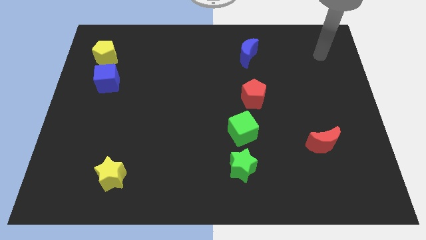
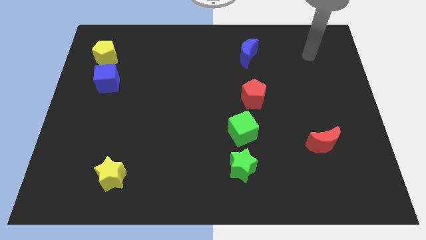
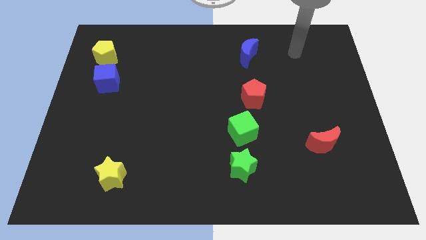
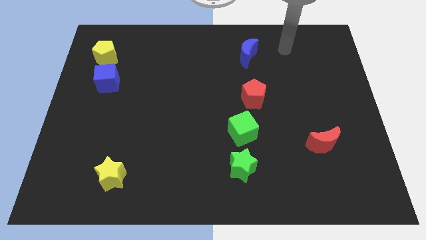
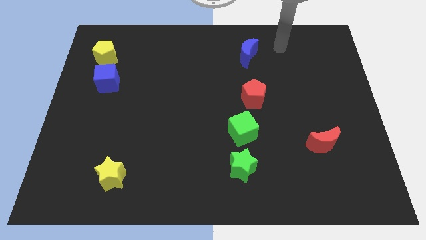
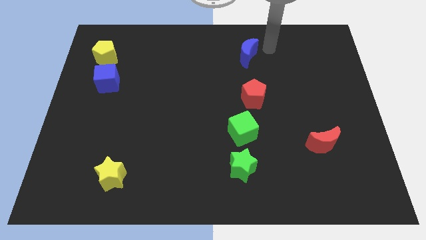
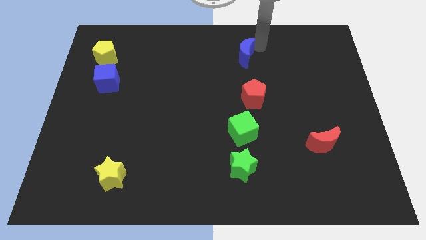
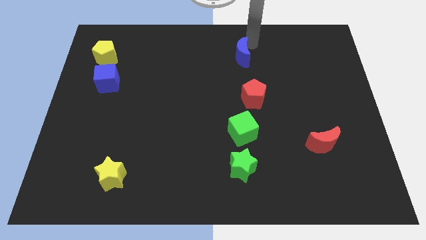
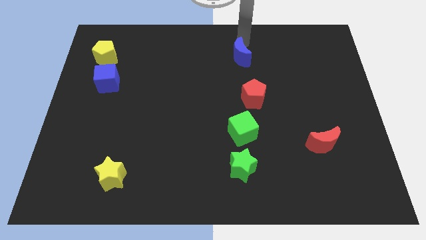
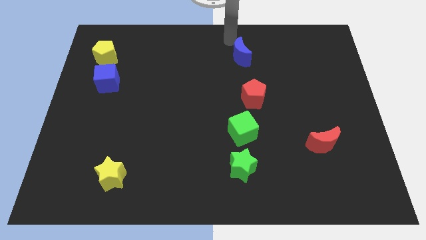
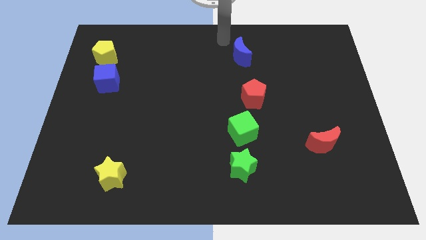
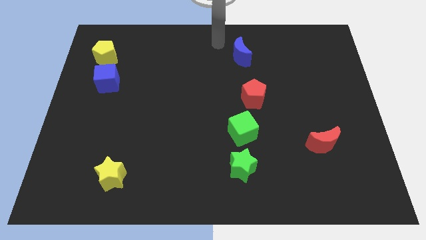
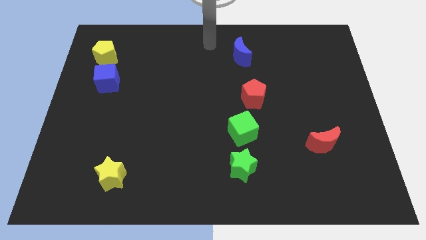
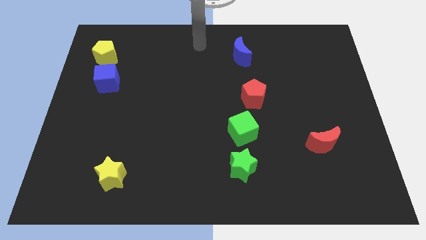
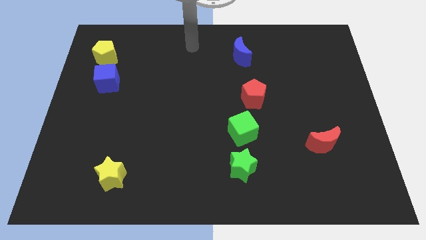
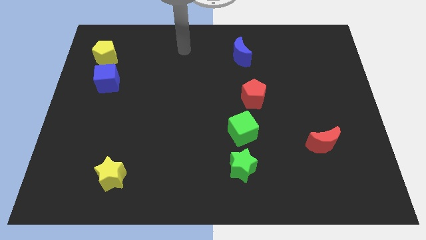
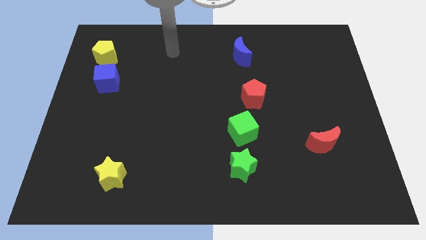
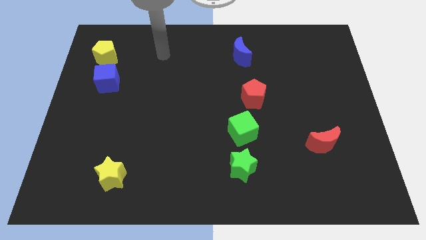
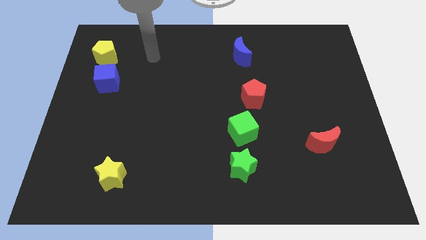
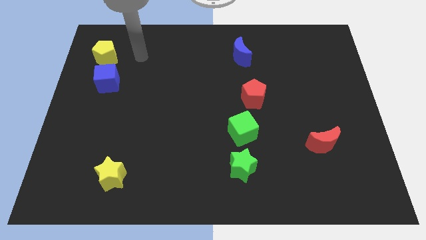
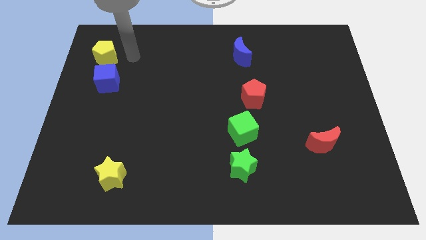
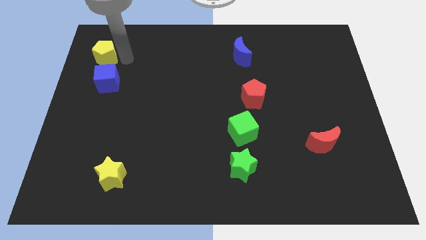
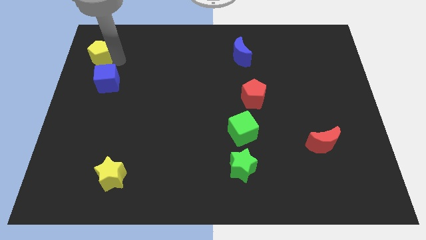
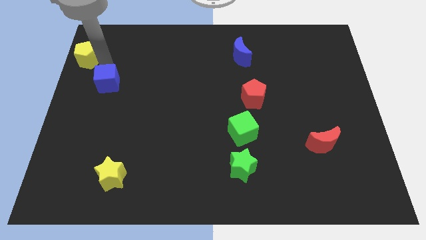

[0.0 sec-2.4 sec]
separate the blue cube from the yellow pentagon

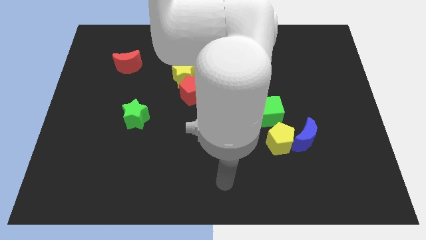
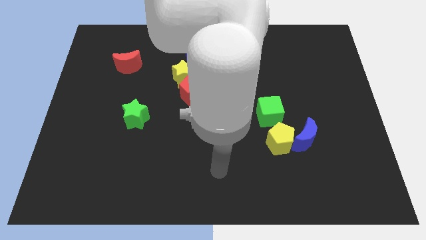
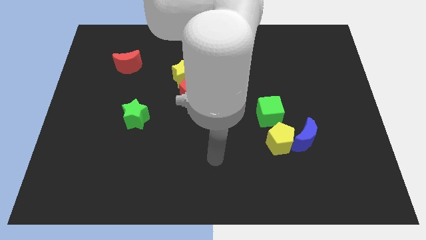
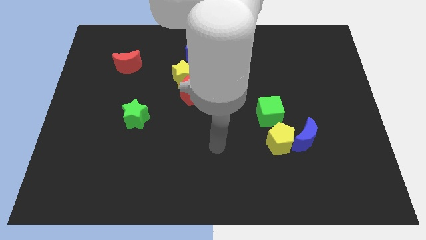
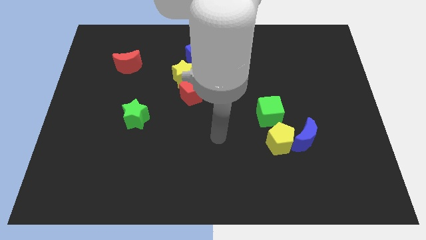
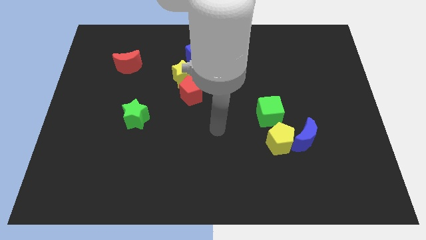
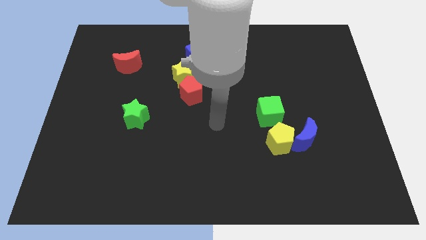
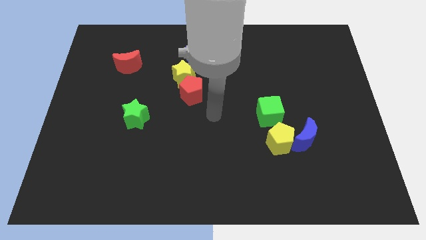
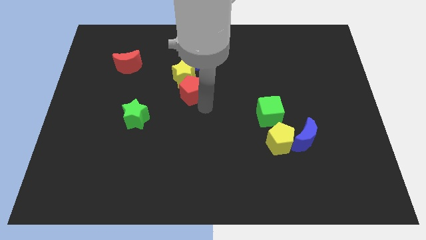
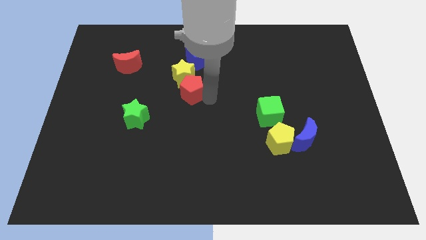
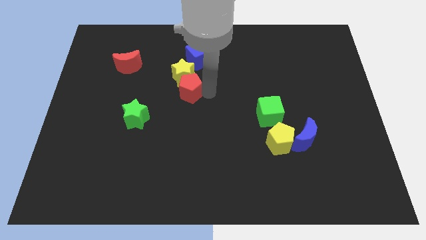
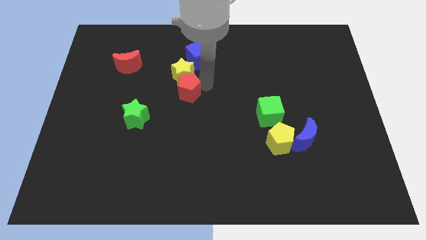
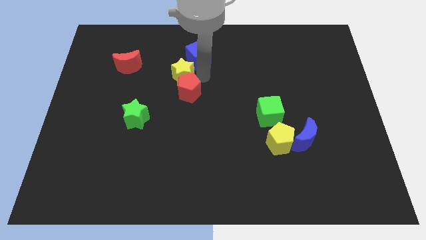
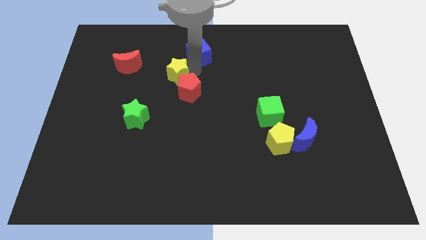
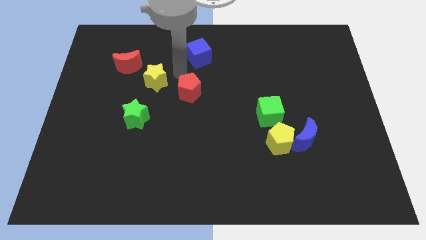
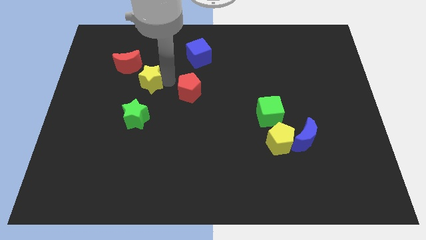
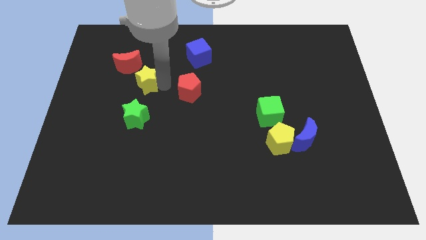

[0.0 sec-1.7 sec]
pull the red pentagon apart from the yellow star

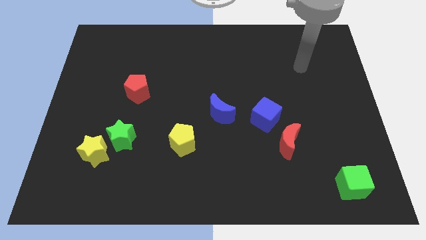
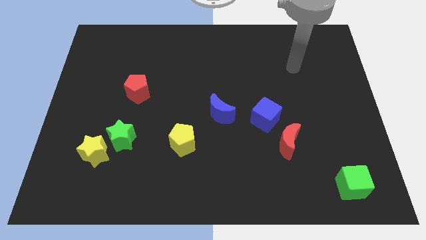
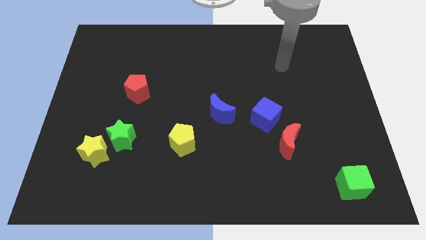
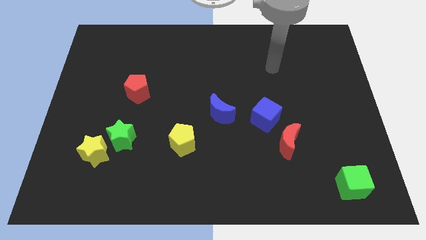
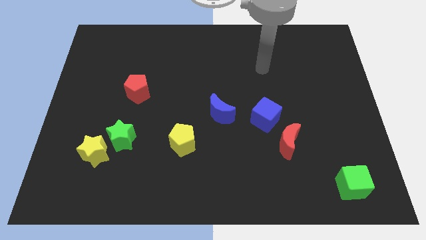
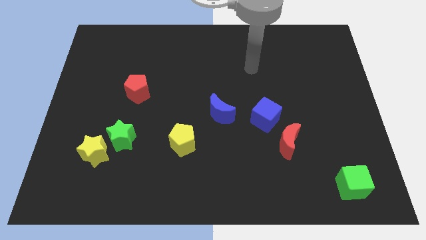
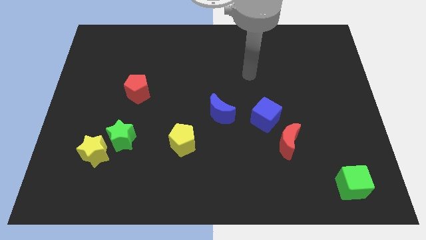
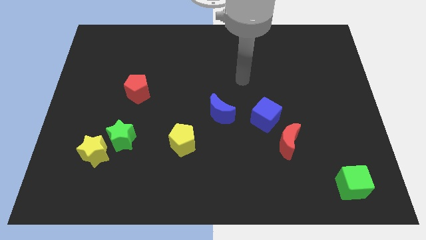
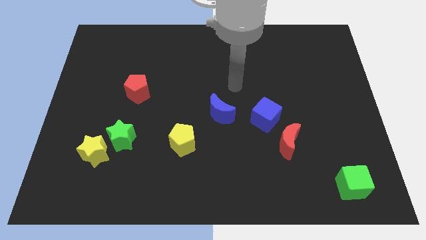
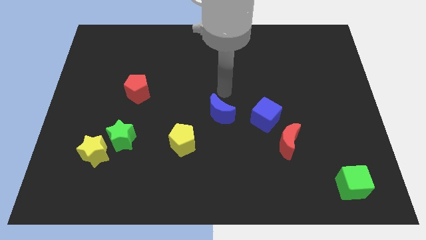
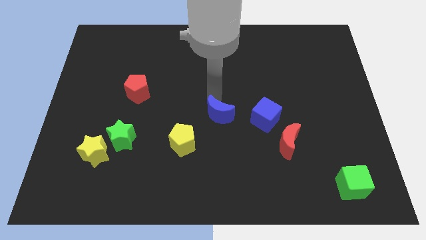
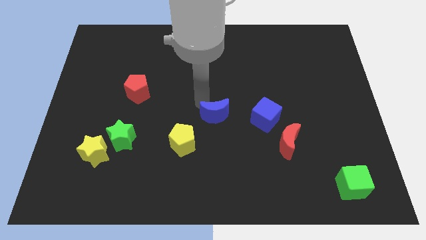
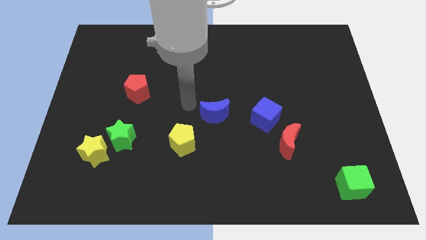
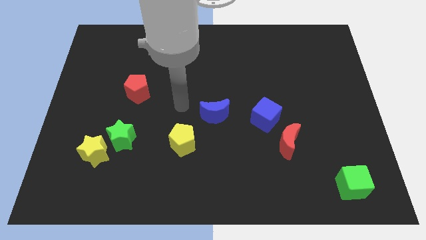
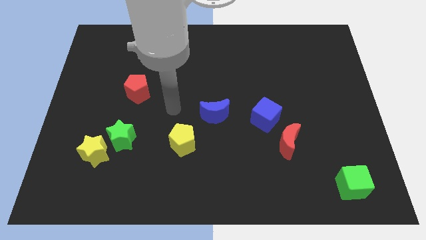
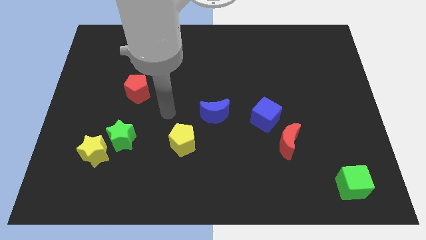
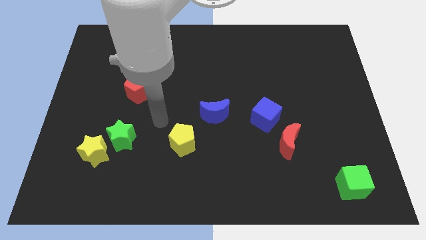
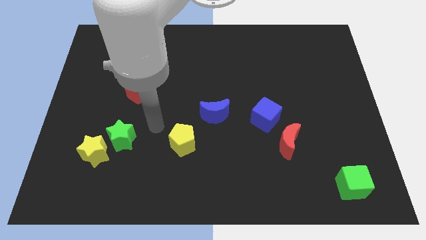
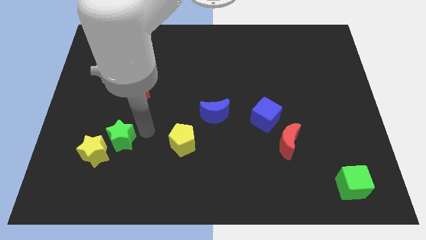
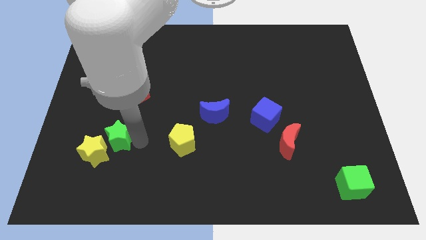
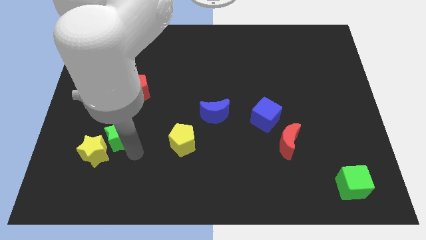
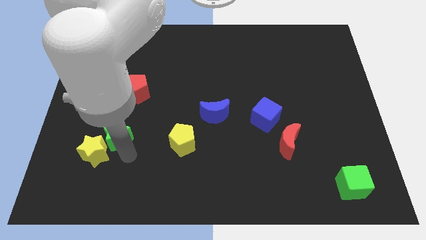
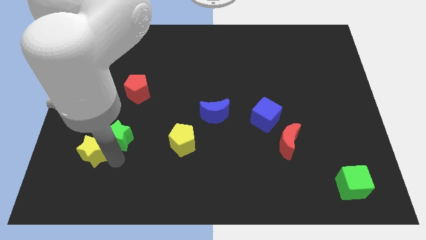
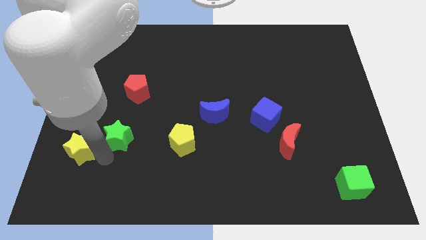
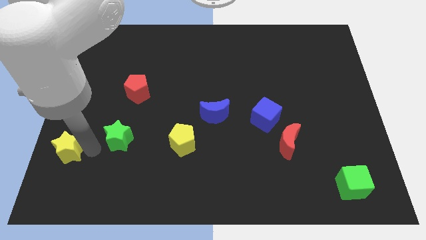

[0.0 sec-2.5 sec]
separate the green star from the yellow star

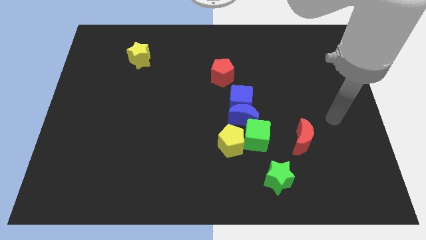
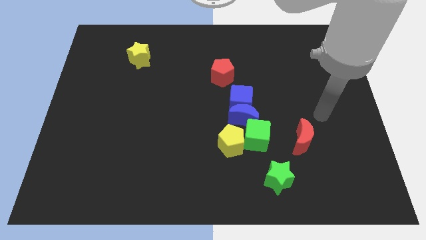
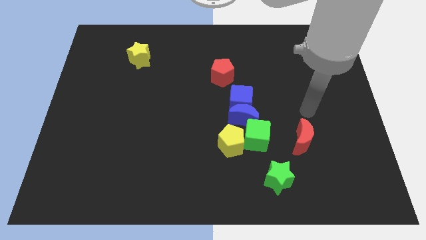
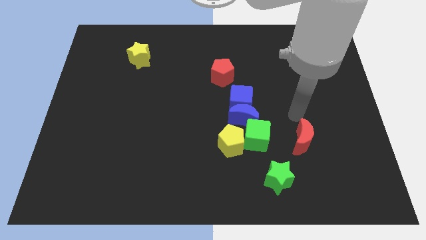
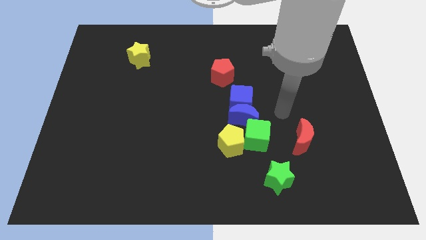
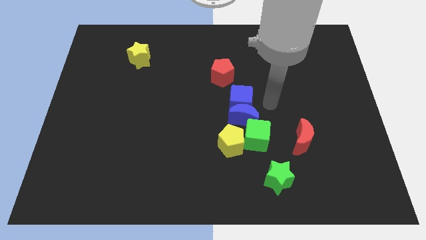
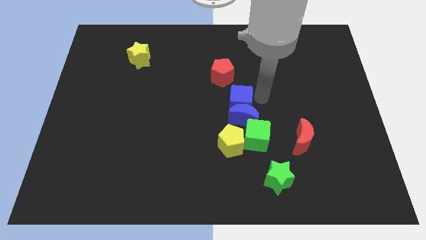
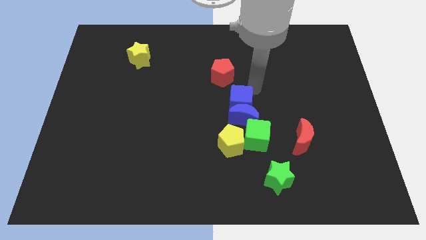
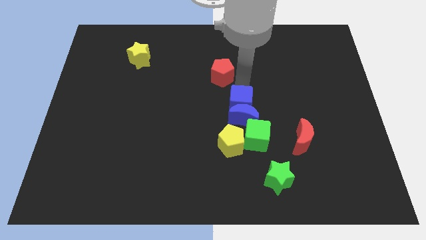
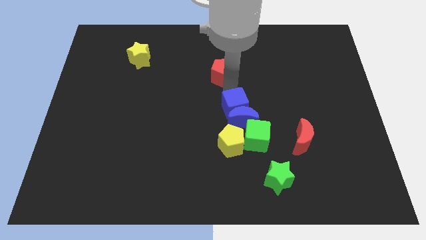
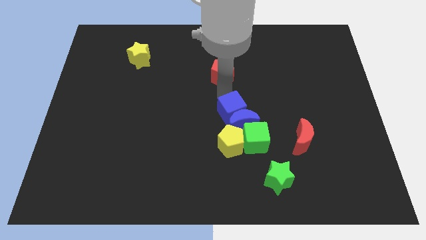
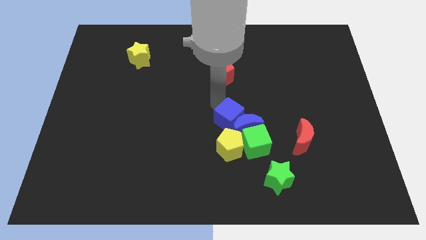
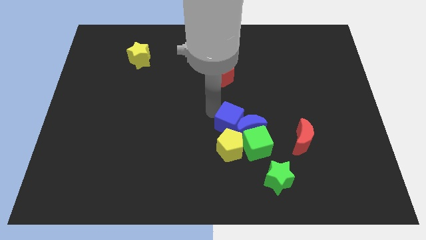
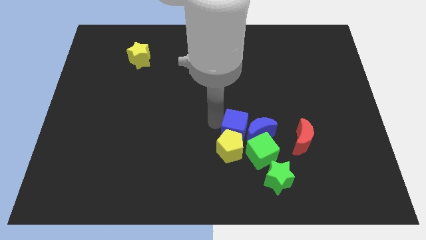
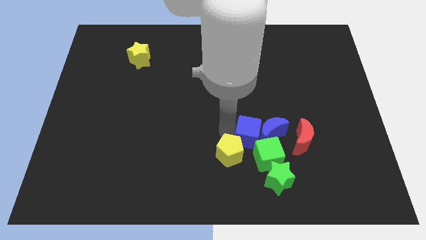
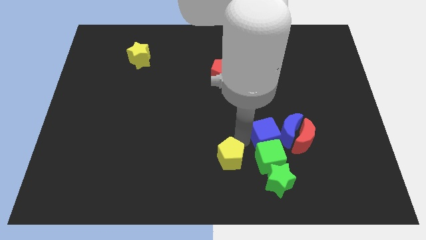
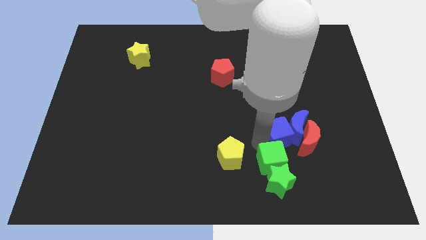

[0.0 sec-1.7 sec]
pull the blue moon apart from the blue cube, green cube, and yellow pentagon

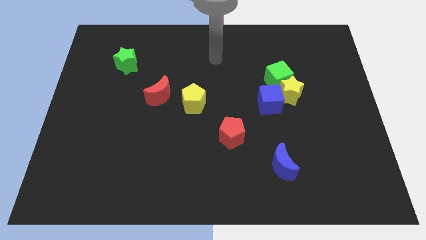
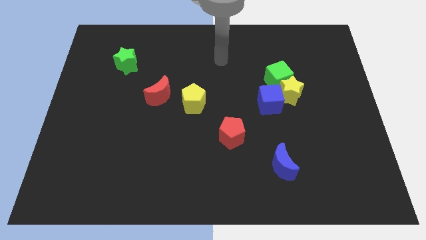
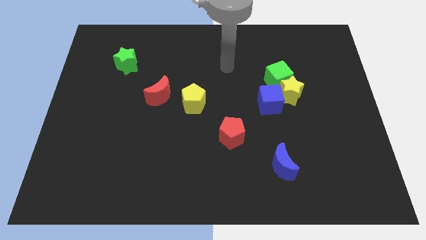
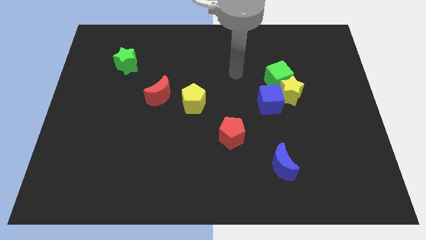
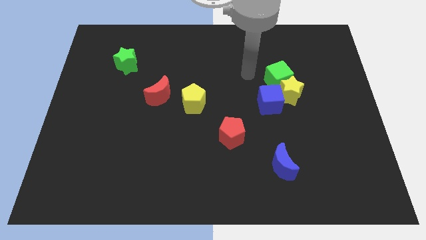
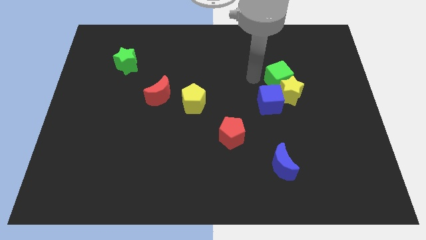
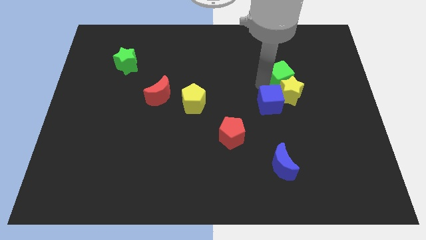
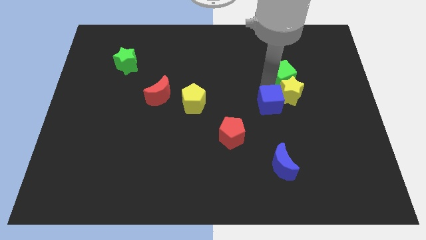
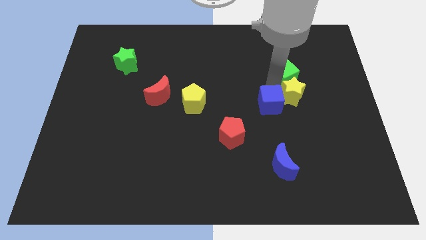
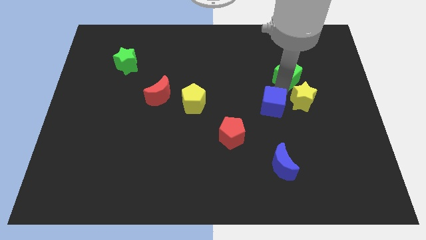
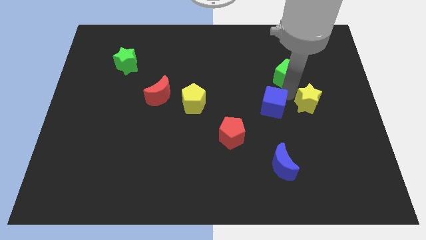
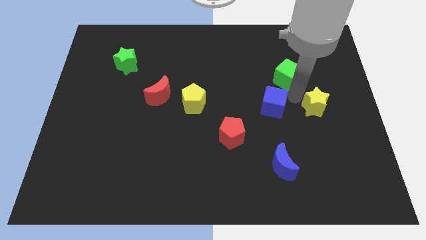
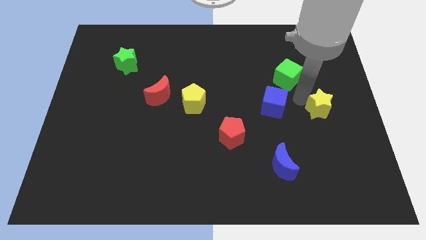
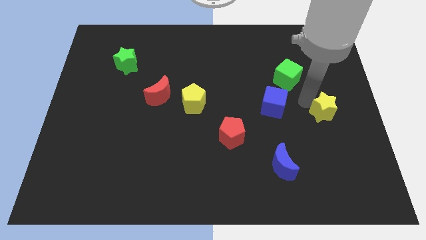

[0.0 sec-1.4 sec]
pull the yellow star apart from the green cube and blue cube
